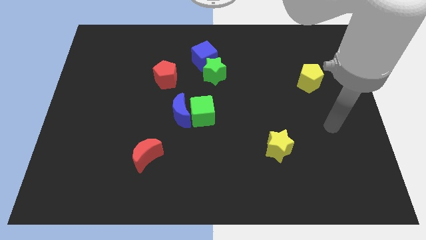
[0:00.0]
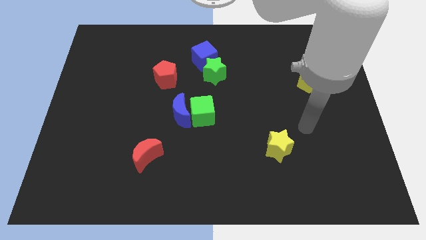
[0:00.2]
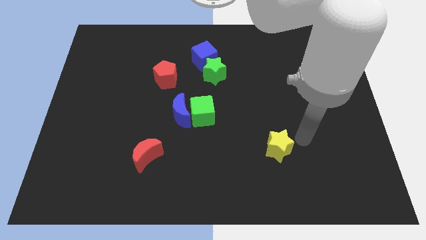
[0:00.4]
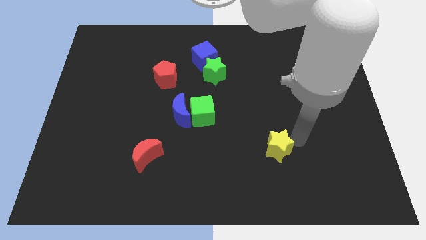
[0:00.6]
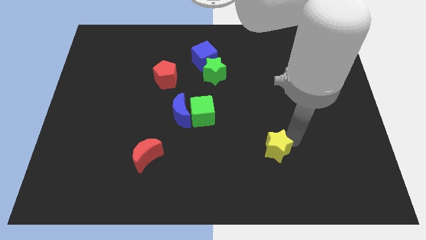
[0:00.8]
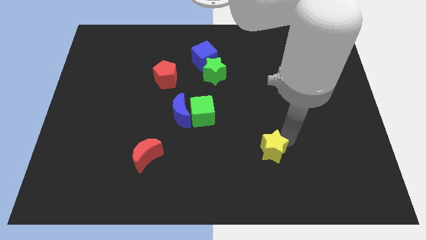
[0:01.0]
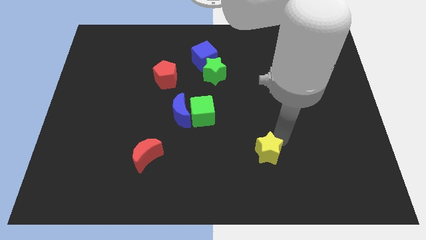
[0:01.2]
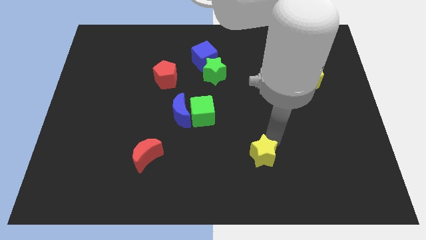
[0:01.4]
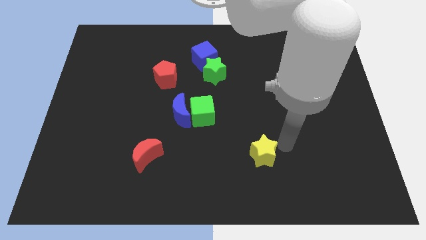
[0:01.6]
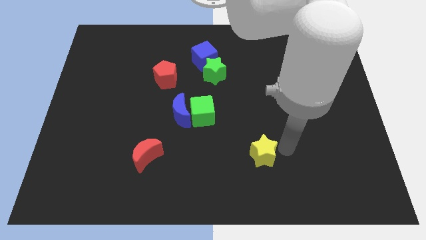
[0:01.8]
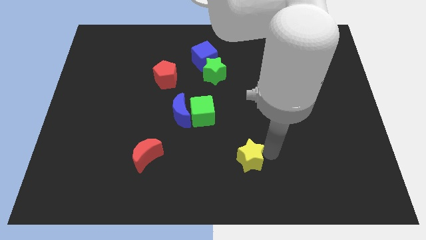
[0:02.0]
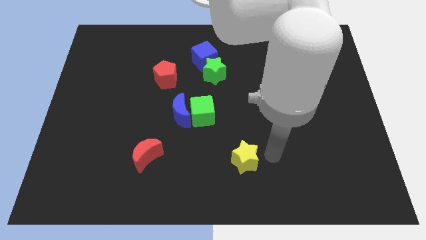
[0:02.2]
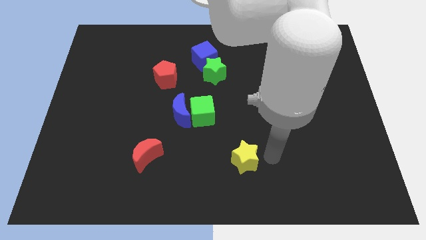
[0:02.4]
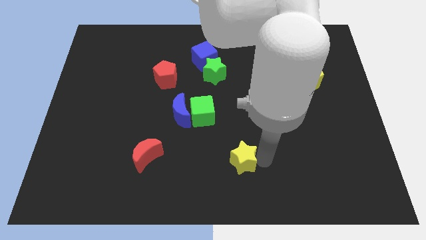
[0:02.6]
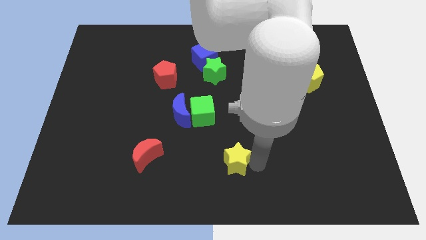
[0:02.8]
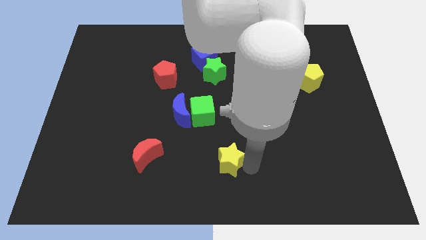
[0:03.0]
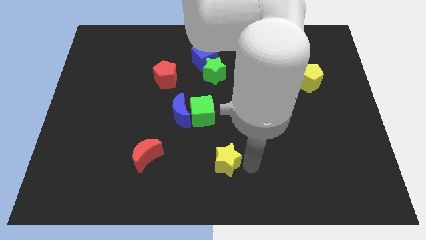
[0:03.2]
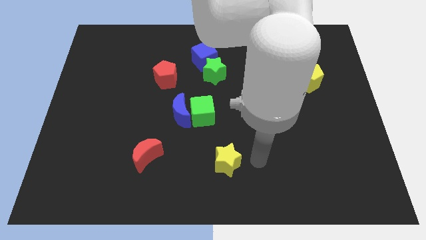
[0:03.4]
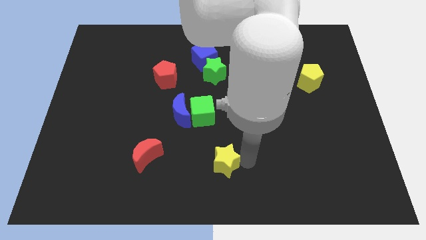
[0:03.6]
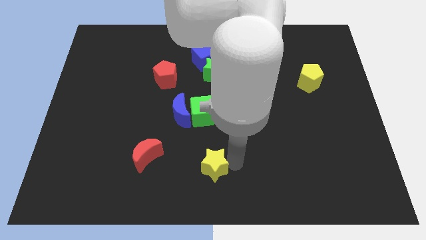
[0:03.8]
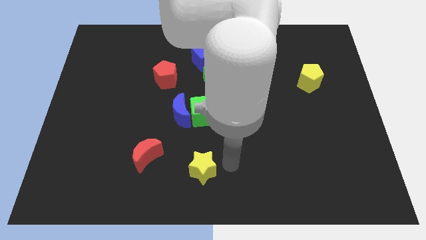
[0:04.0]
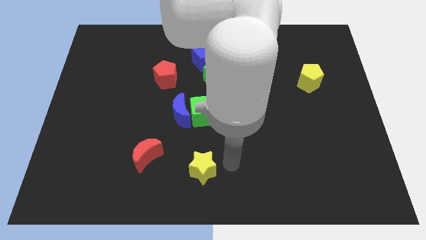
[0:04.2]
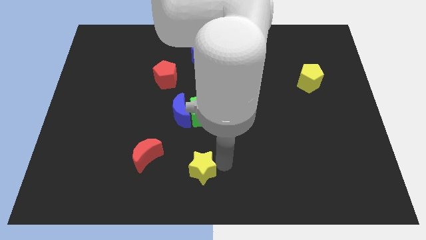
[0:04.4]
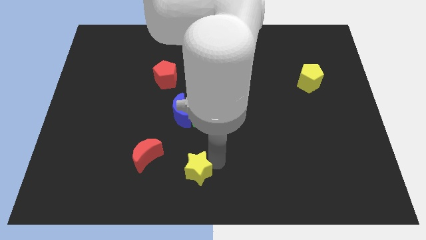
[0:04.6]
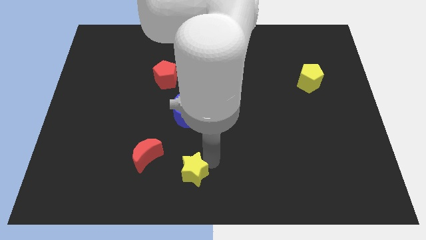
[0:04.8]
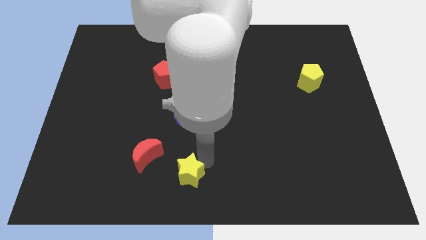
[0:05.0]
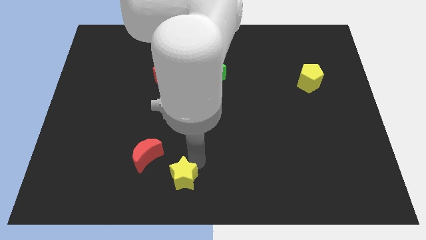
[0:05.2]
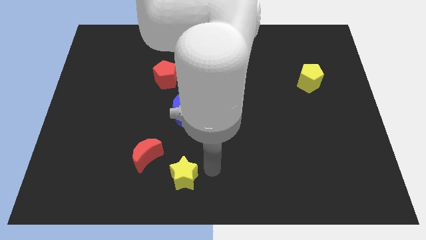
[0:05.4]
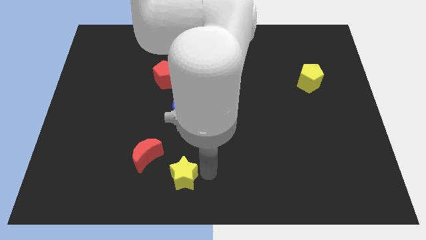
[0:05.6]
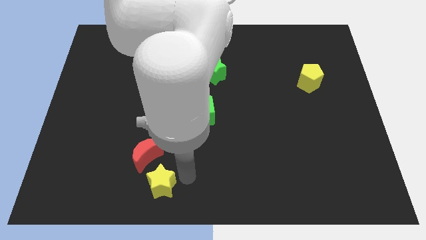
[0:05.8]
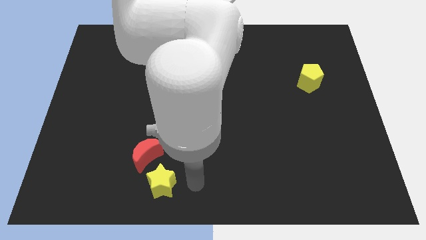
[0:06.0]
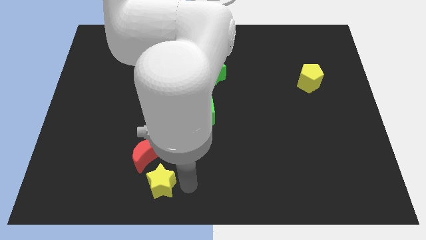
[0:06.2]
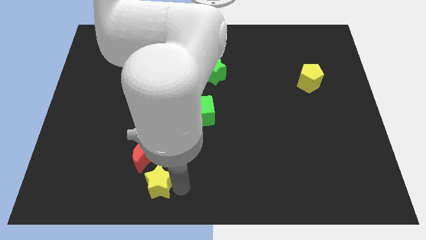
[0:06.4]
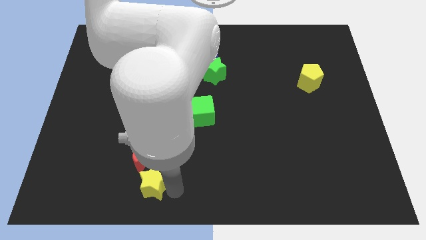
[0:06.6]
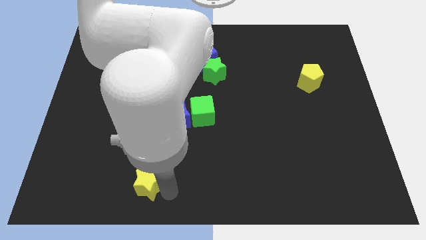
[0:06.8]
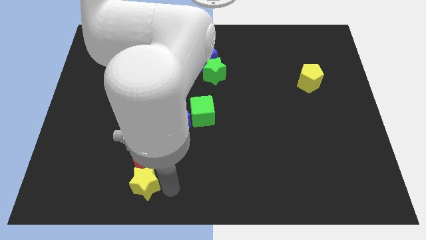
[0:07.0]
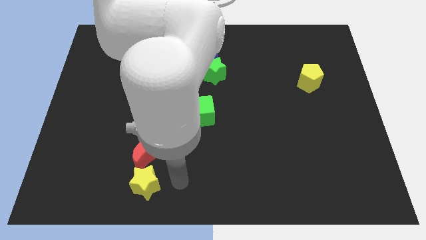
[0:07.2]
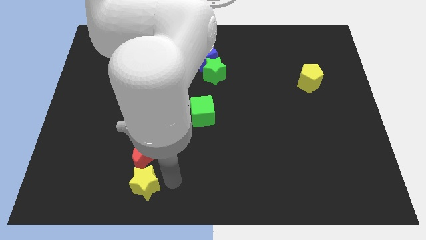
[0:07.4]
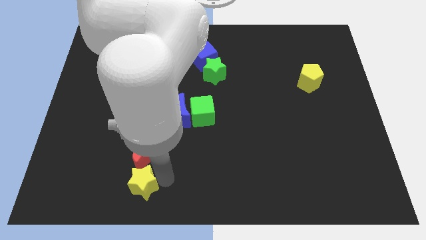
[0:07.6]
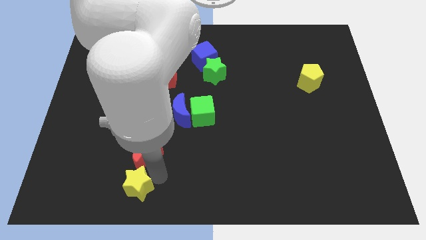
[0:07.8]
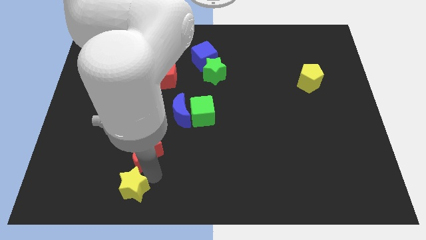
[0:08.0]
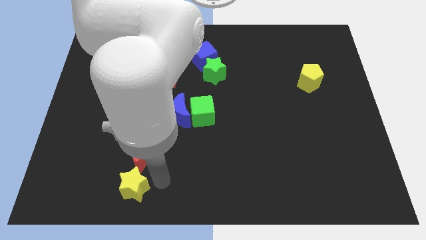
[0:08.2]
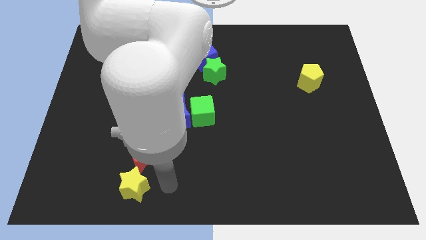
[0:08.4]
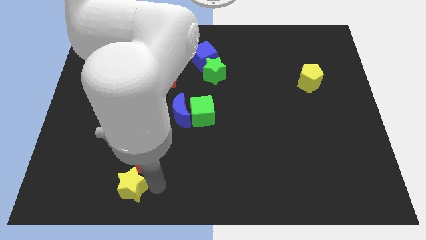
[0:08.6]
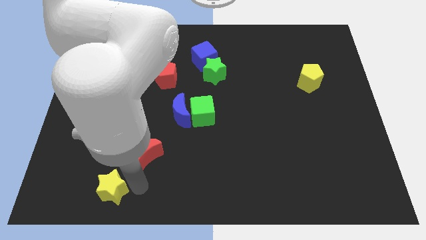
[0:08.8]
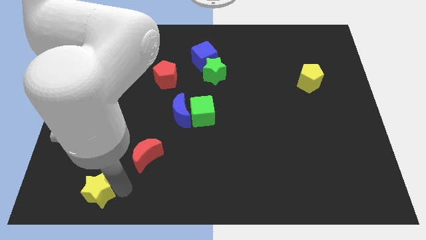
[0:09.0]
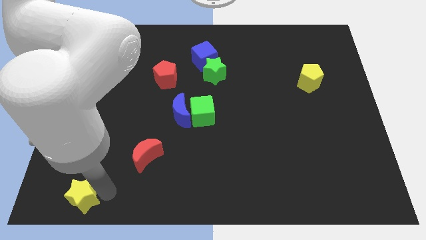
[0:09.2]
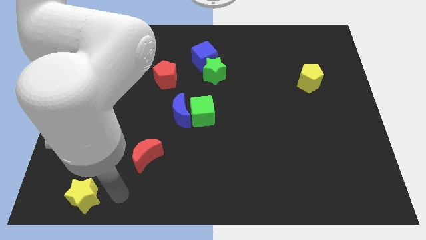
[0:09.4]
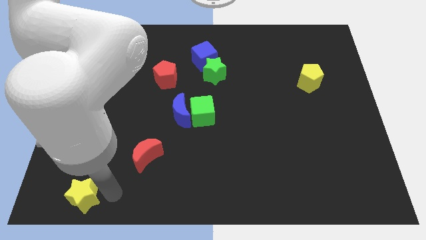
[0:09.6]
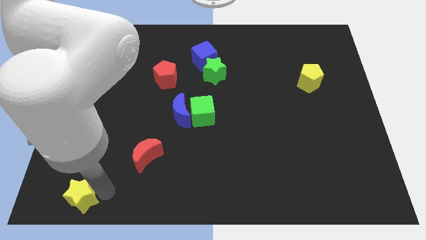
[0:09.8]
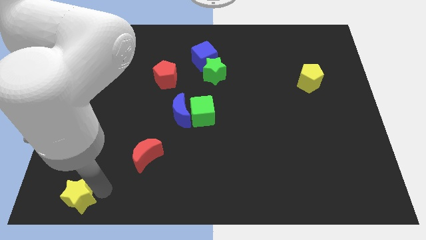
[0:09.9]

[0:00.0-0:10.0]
slide the yellow star to the bottom left of the board

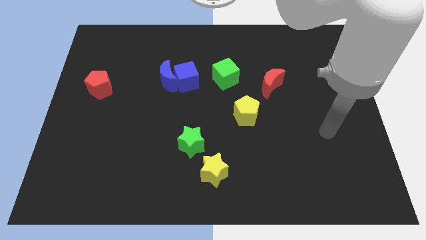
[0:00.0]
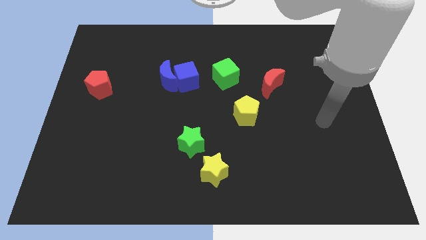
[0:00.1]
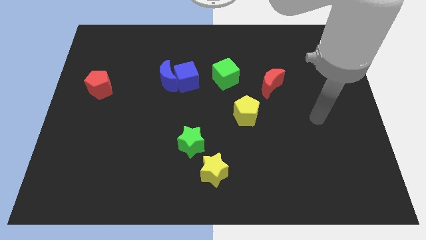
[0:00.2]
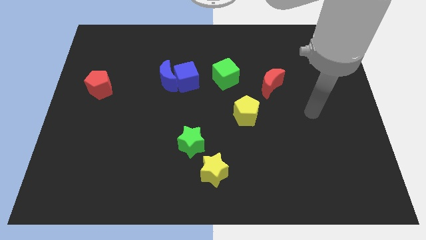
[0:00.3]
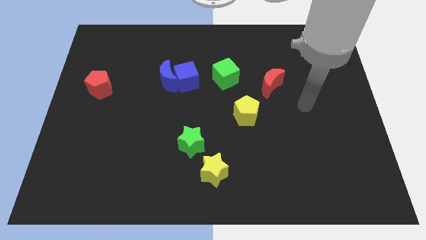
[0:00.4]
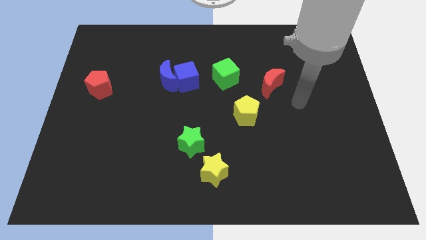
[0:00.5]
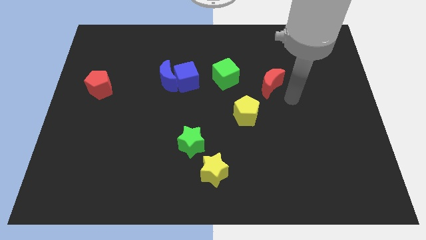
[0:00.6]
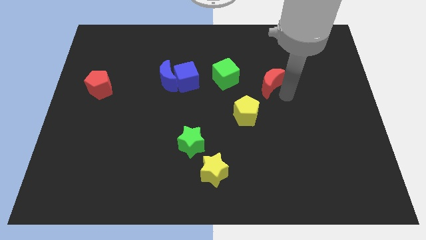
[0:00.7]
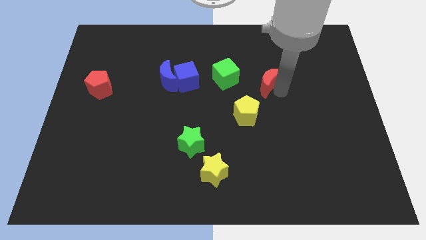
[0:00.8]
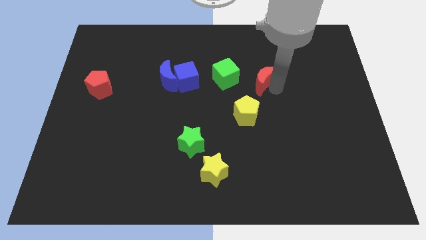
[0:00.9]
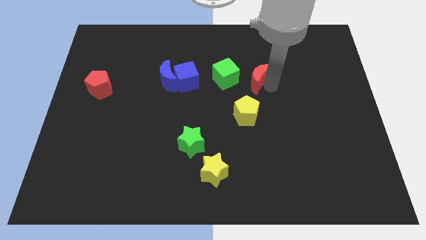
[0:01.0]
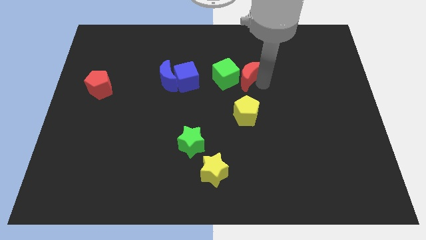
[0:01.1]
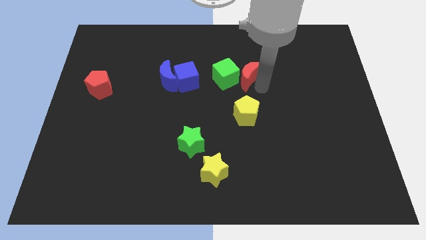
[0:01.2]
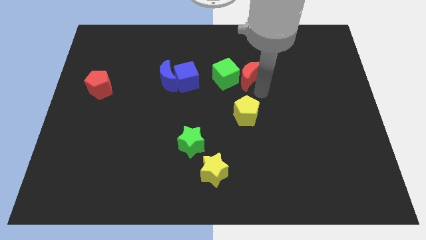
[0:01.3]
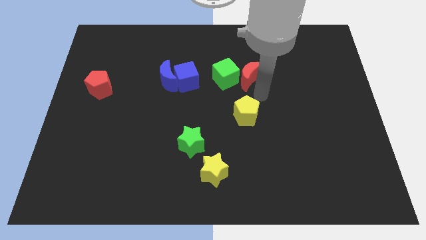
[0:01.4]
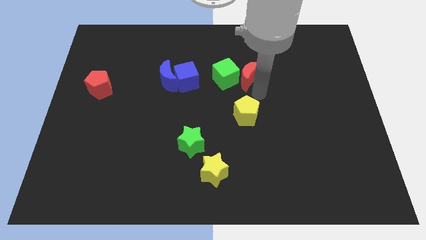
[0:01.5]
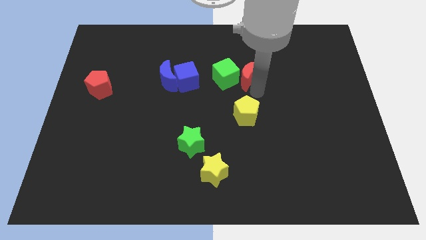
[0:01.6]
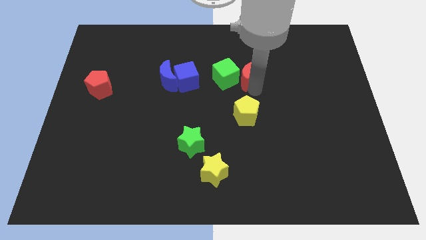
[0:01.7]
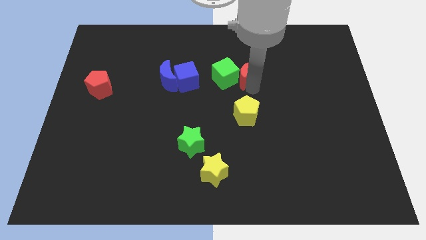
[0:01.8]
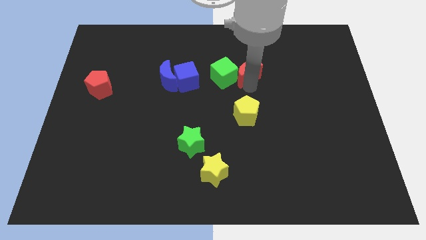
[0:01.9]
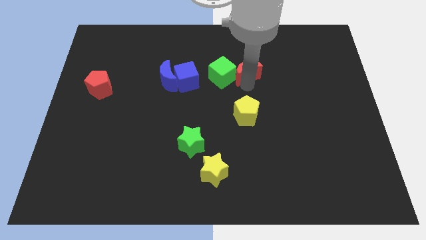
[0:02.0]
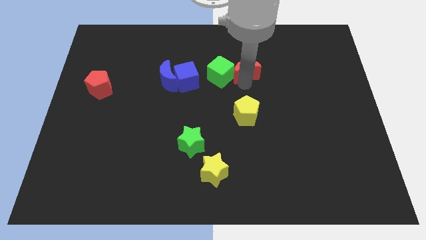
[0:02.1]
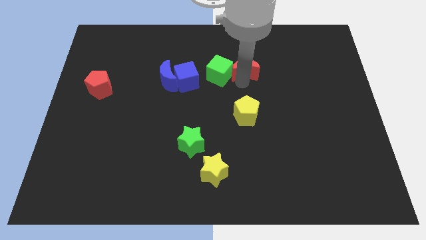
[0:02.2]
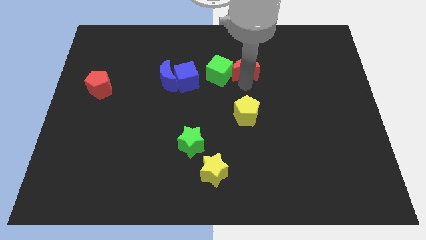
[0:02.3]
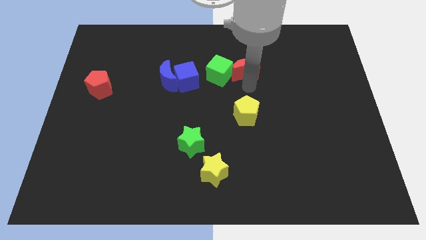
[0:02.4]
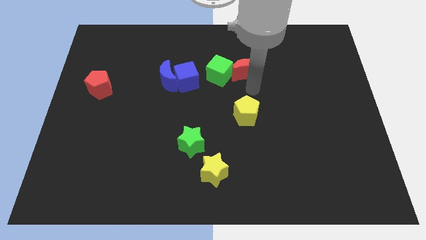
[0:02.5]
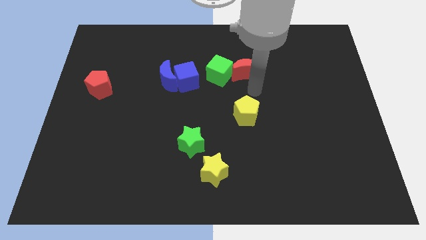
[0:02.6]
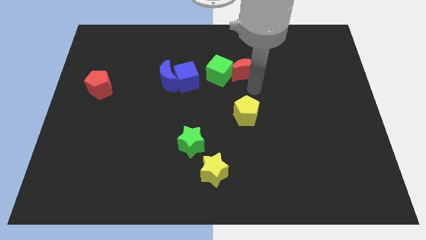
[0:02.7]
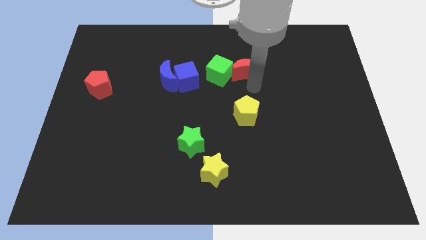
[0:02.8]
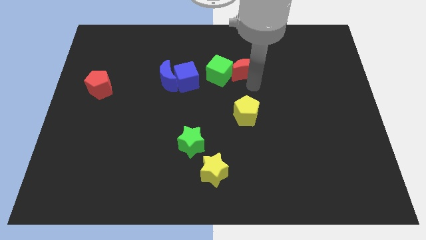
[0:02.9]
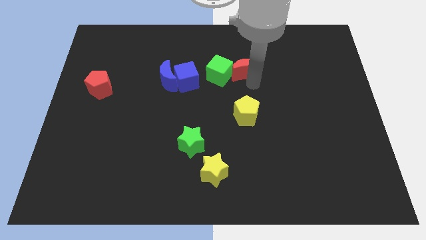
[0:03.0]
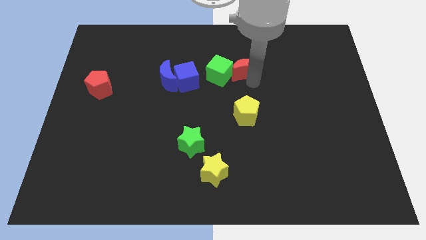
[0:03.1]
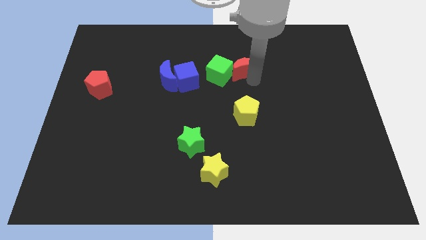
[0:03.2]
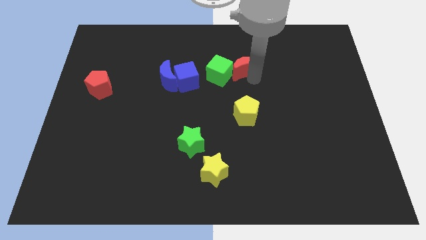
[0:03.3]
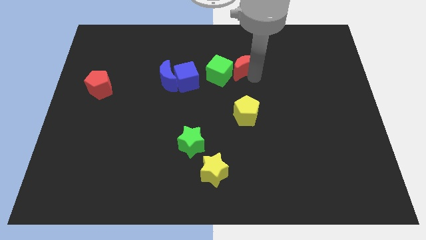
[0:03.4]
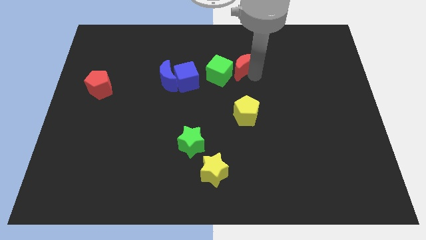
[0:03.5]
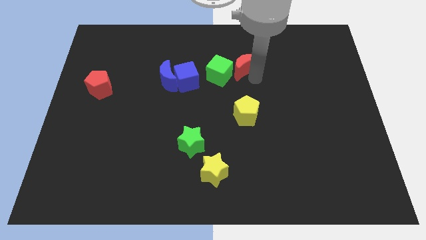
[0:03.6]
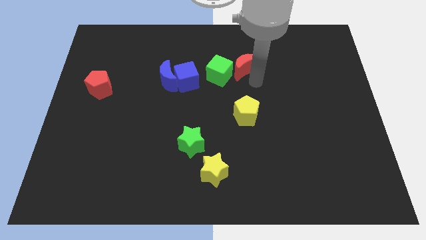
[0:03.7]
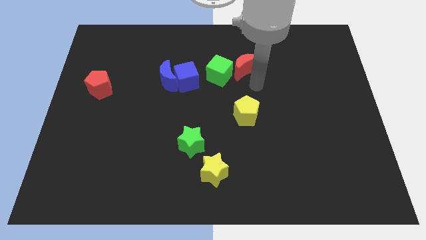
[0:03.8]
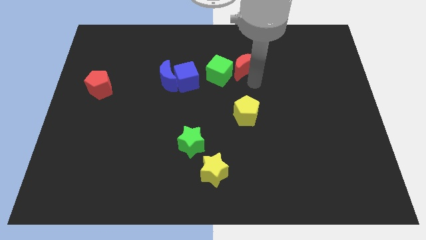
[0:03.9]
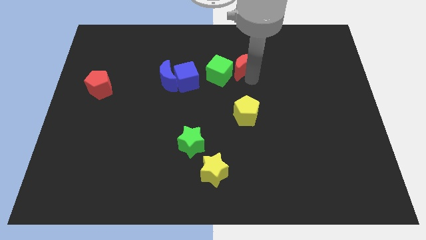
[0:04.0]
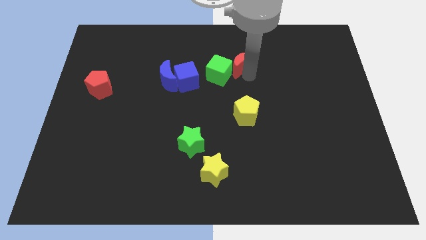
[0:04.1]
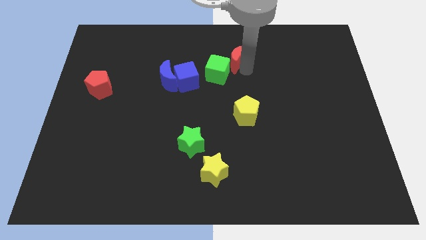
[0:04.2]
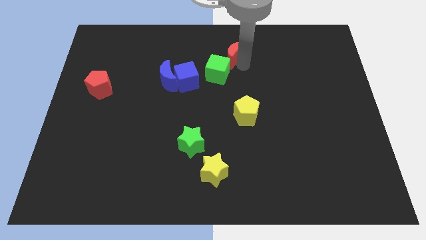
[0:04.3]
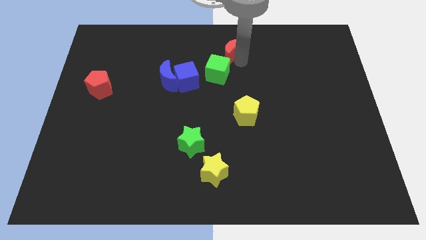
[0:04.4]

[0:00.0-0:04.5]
move the red moon to the towards your base
